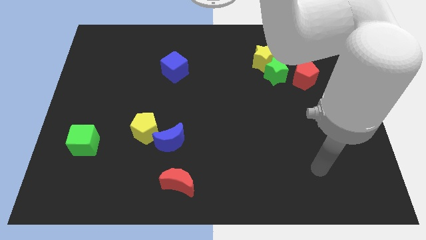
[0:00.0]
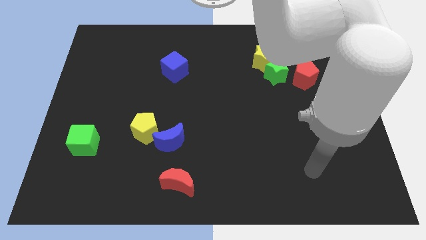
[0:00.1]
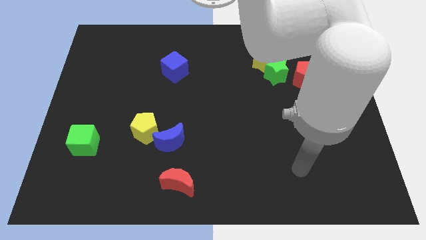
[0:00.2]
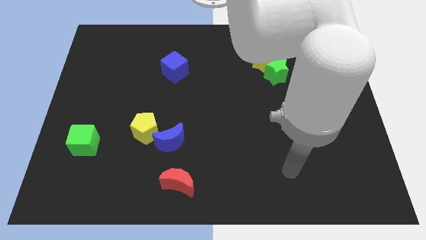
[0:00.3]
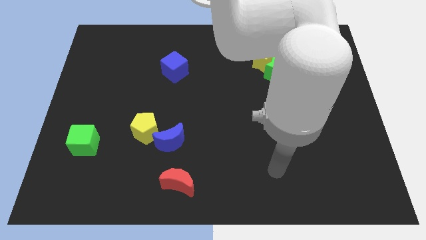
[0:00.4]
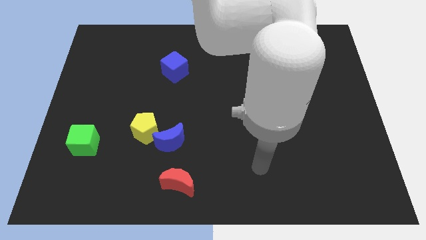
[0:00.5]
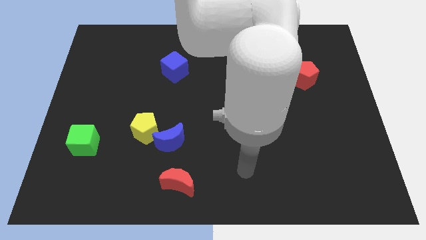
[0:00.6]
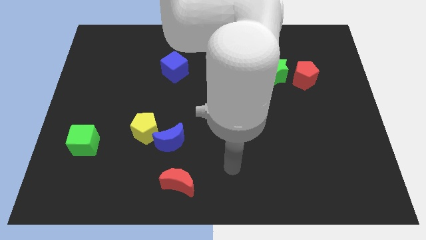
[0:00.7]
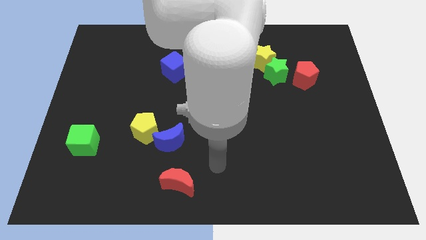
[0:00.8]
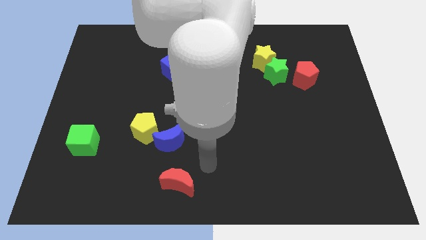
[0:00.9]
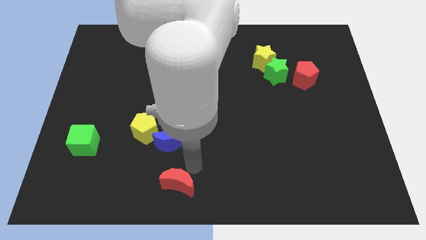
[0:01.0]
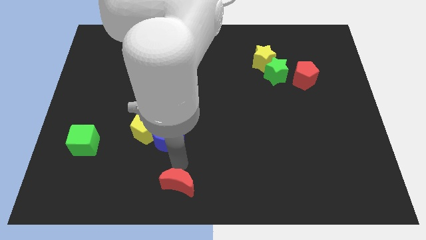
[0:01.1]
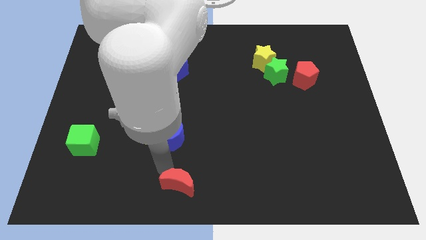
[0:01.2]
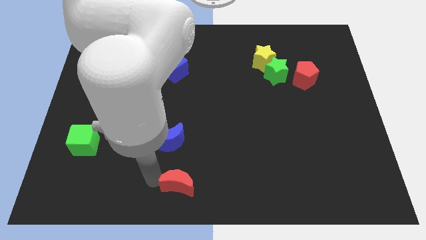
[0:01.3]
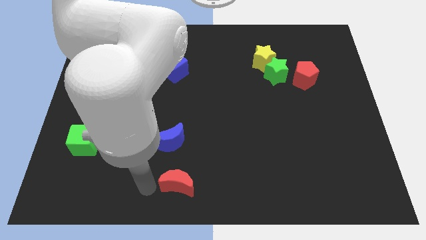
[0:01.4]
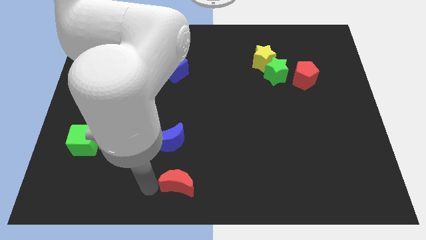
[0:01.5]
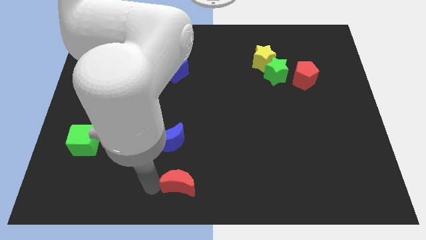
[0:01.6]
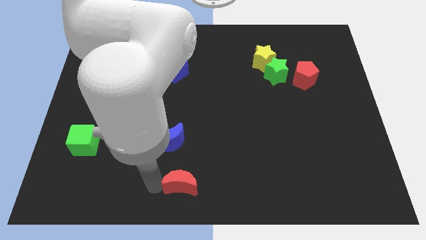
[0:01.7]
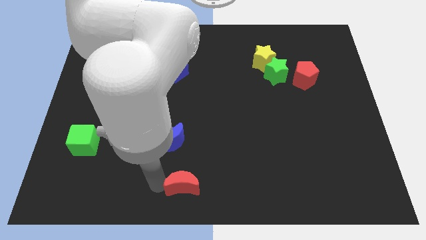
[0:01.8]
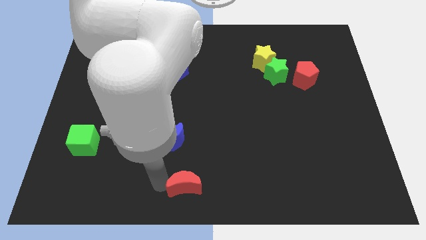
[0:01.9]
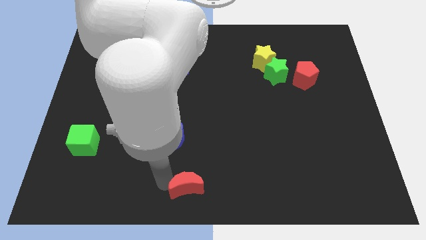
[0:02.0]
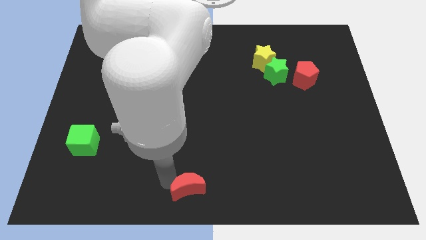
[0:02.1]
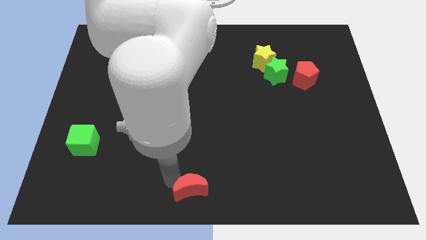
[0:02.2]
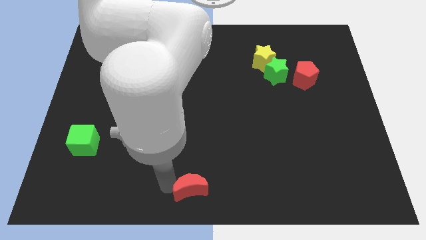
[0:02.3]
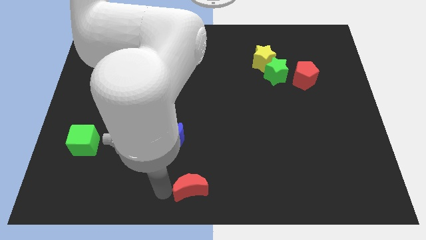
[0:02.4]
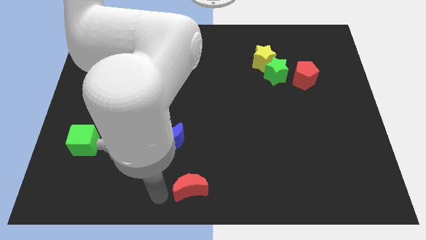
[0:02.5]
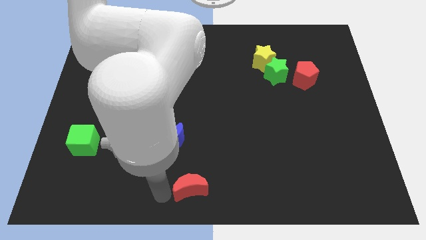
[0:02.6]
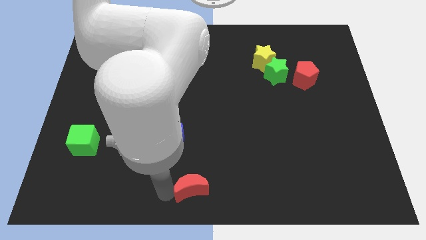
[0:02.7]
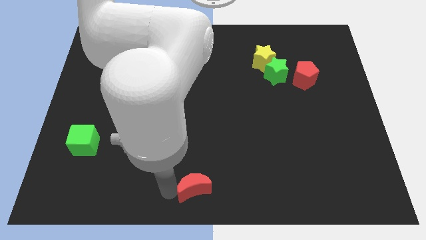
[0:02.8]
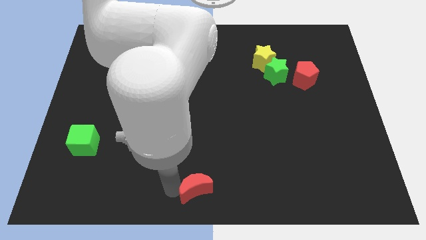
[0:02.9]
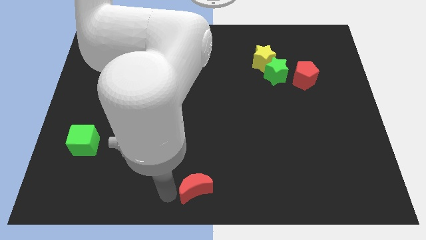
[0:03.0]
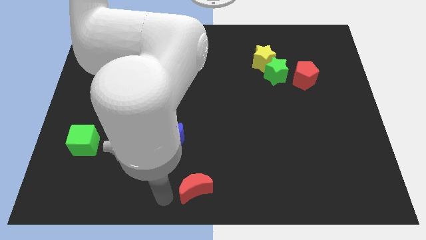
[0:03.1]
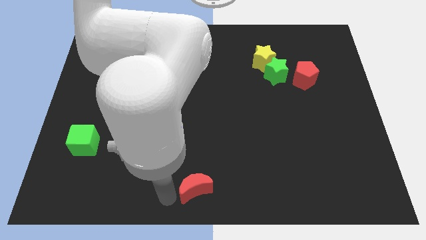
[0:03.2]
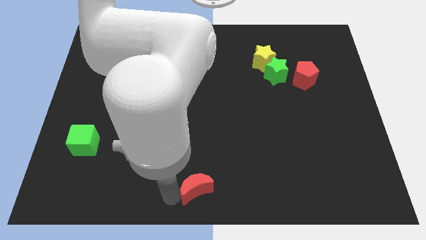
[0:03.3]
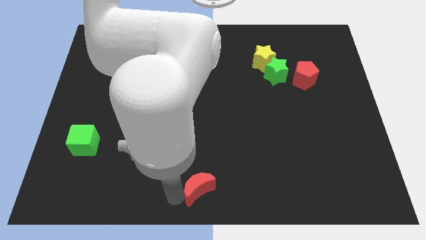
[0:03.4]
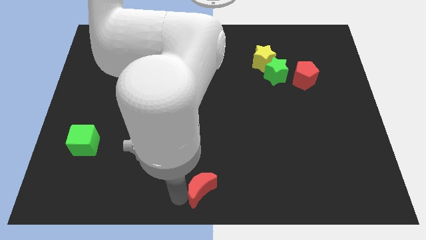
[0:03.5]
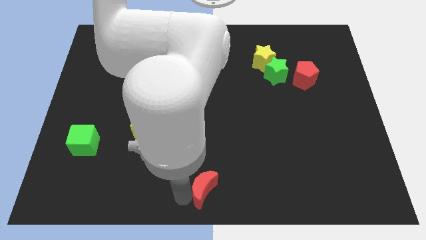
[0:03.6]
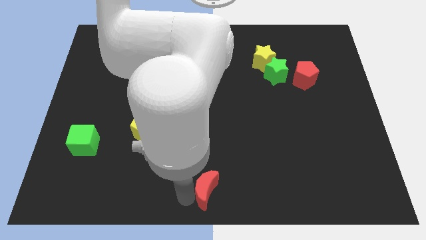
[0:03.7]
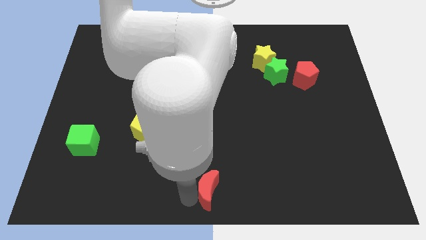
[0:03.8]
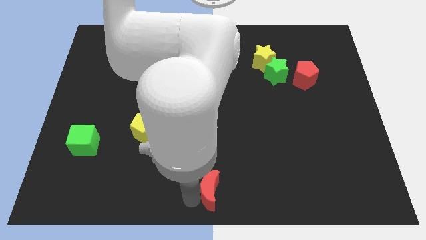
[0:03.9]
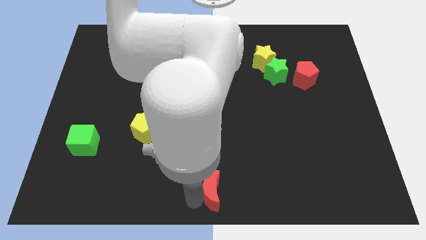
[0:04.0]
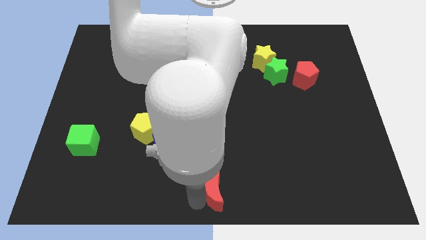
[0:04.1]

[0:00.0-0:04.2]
slightly move the red moon right

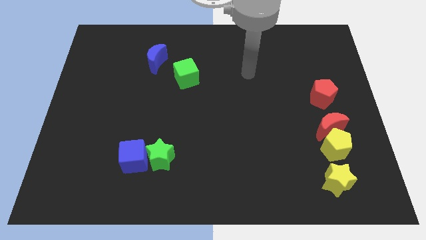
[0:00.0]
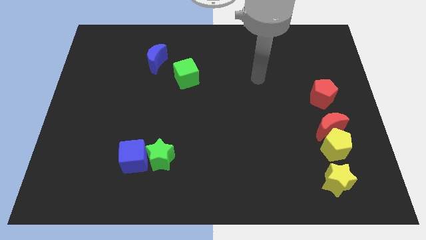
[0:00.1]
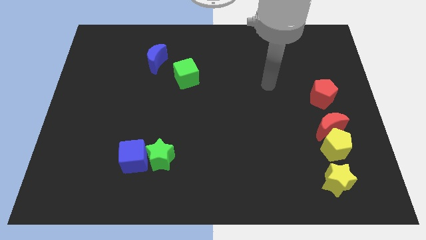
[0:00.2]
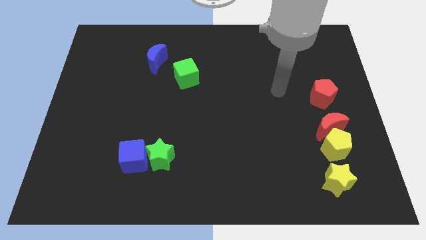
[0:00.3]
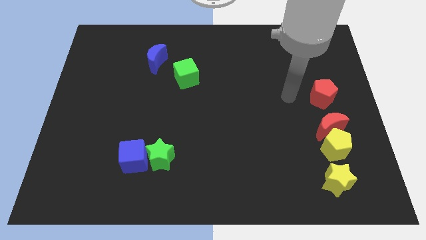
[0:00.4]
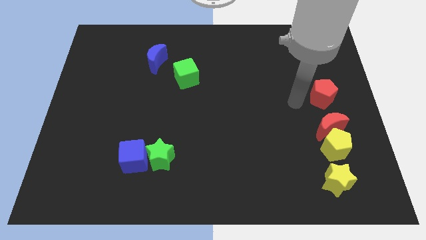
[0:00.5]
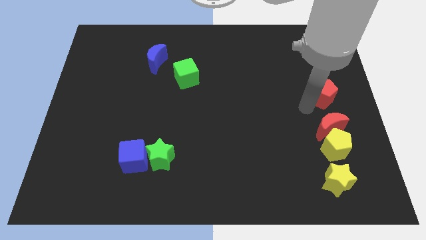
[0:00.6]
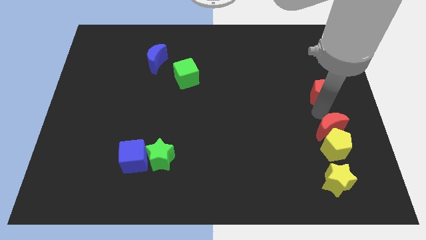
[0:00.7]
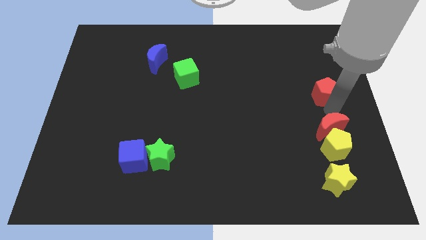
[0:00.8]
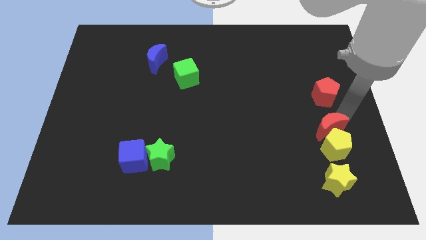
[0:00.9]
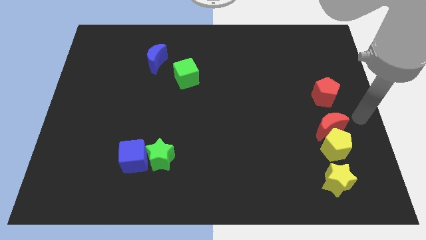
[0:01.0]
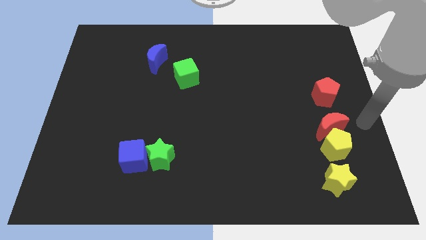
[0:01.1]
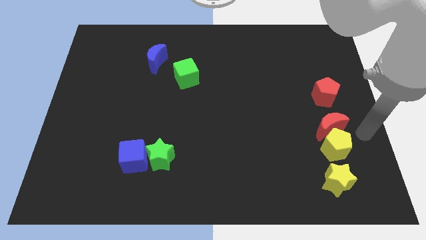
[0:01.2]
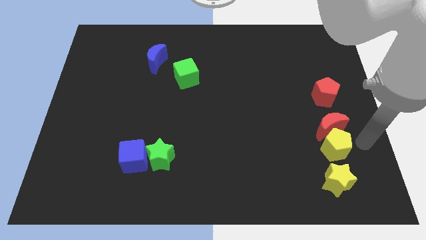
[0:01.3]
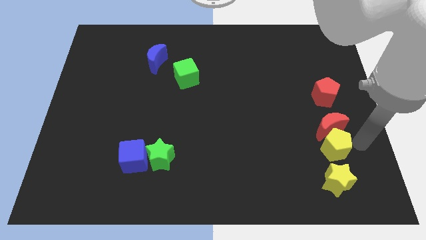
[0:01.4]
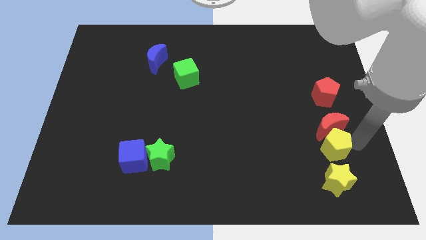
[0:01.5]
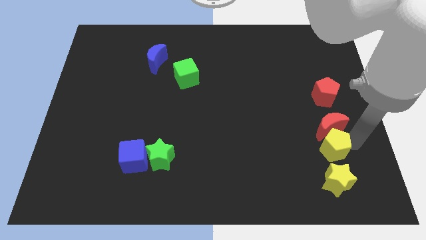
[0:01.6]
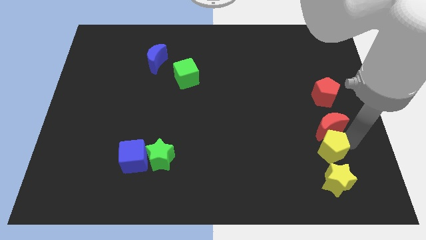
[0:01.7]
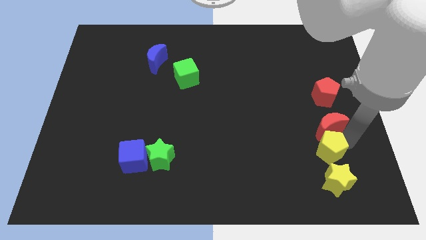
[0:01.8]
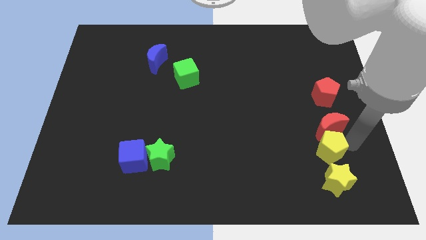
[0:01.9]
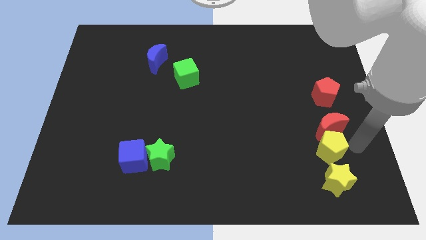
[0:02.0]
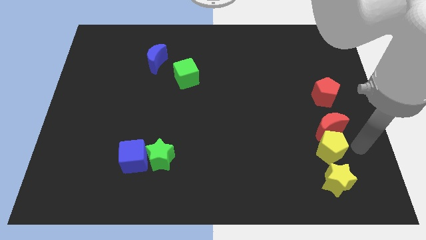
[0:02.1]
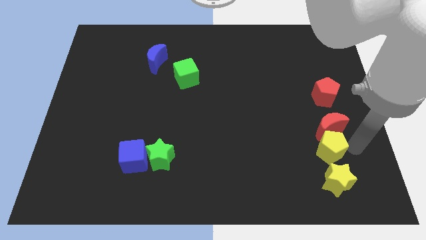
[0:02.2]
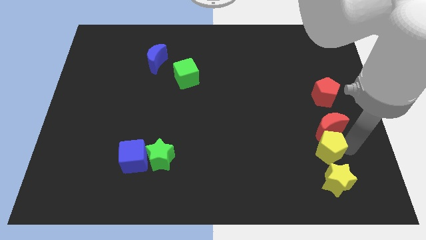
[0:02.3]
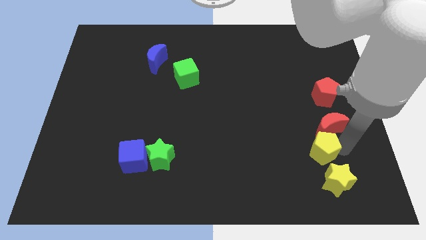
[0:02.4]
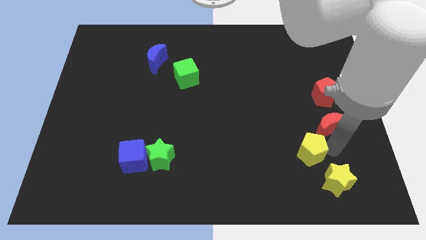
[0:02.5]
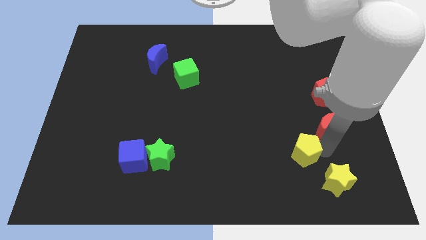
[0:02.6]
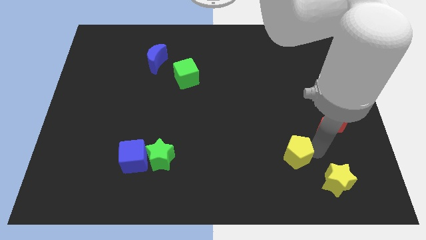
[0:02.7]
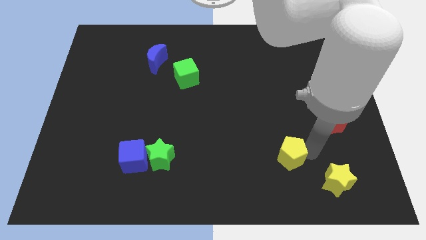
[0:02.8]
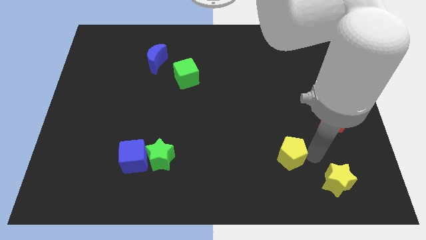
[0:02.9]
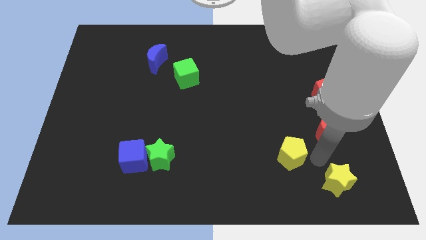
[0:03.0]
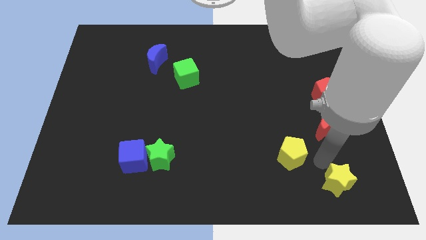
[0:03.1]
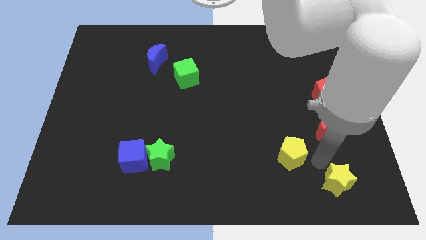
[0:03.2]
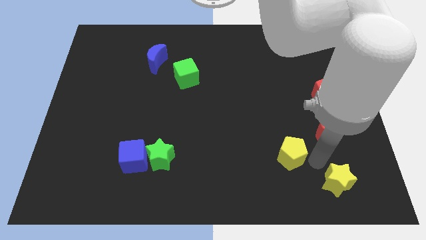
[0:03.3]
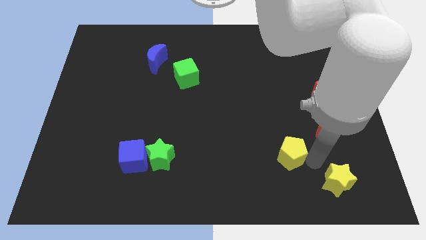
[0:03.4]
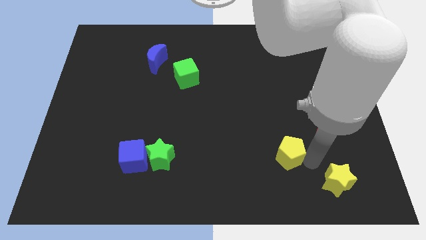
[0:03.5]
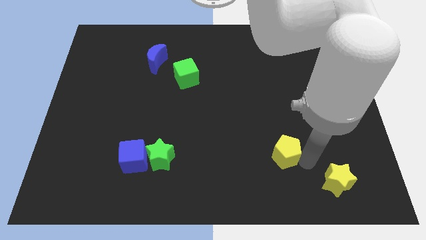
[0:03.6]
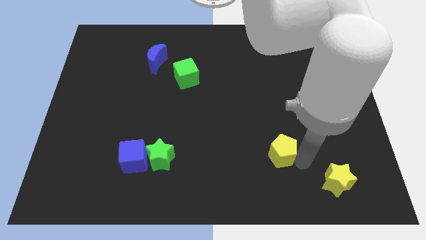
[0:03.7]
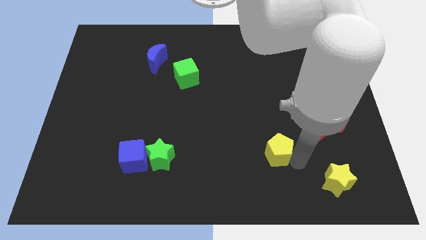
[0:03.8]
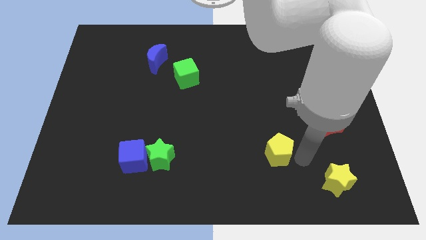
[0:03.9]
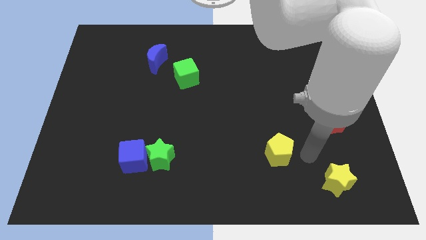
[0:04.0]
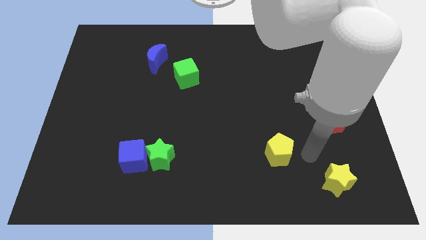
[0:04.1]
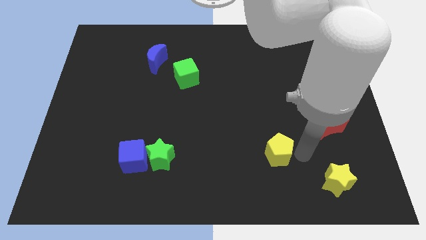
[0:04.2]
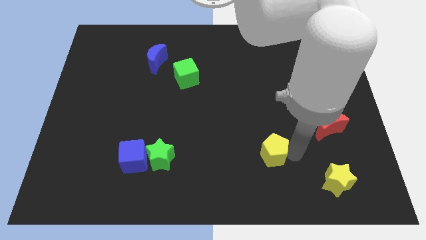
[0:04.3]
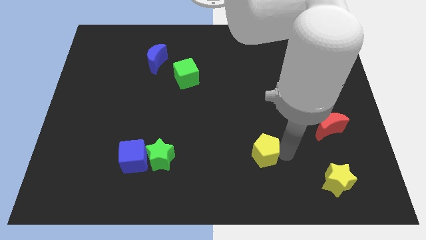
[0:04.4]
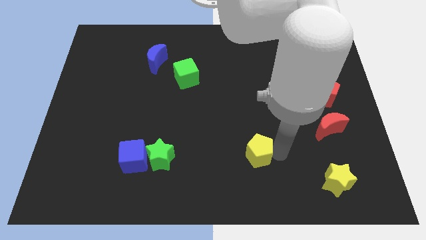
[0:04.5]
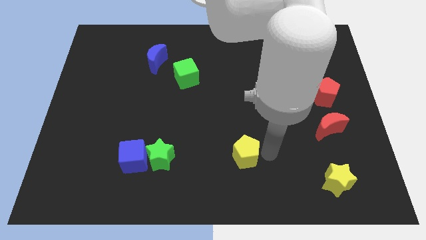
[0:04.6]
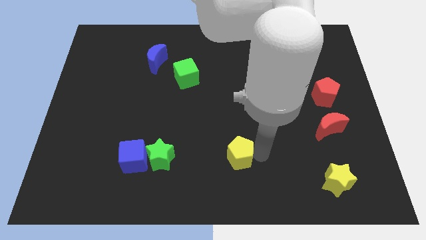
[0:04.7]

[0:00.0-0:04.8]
move the yellow pentagon left
